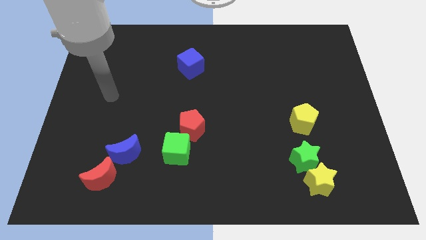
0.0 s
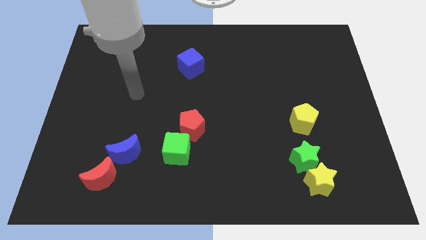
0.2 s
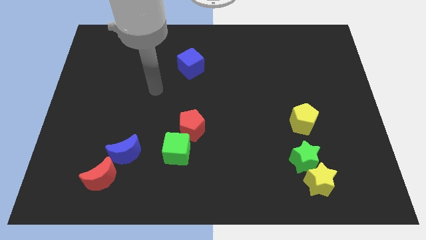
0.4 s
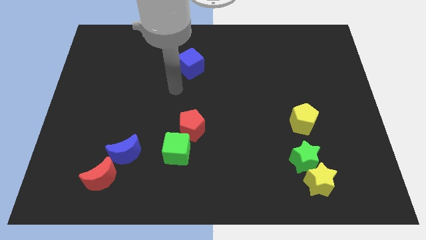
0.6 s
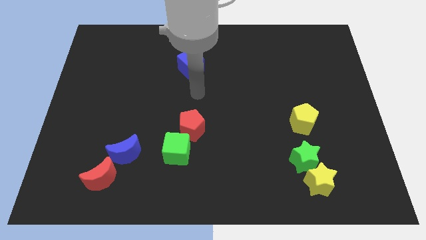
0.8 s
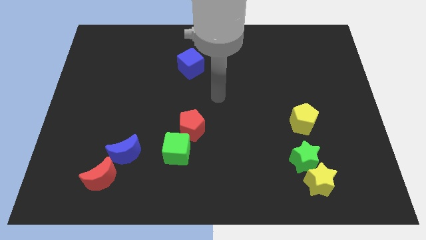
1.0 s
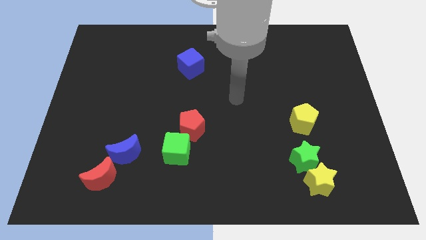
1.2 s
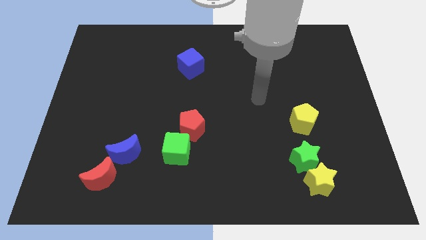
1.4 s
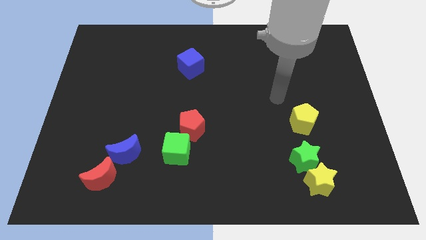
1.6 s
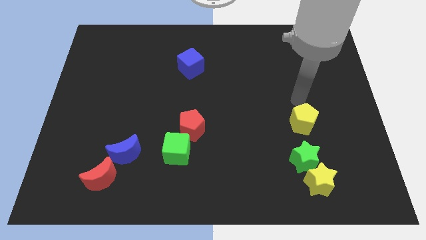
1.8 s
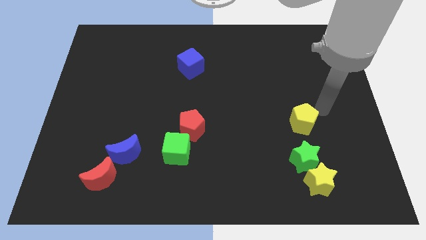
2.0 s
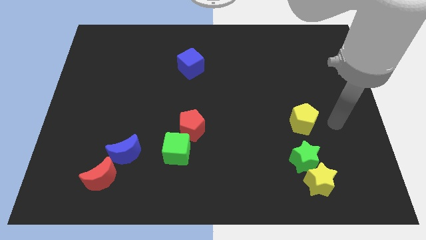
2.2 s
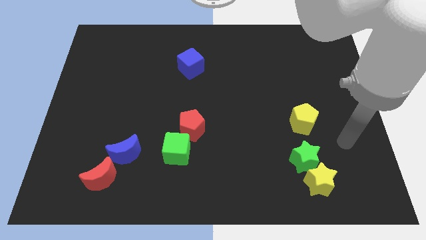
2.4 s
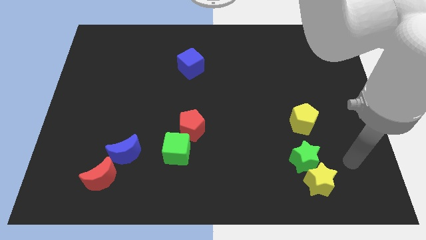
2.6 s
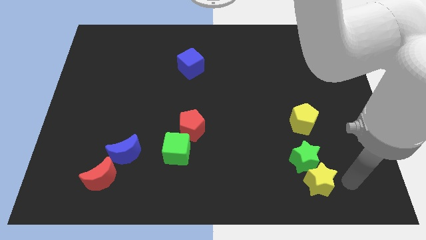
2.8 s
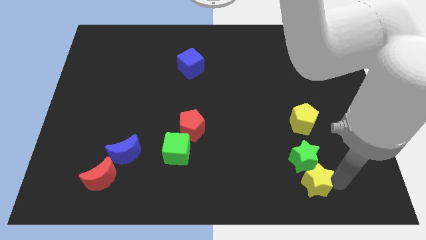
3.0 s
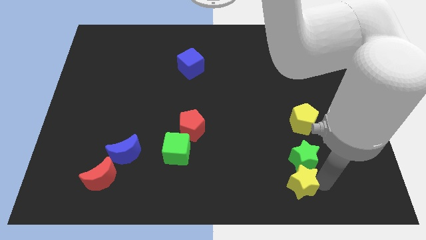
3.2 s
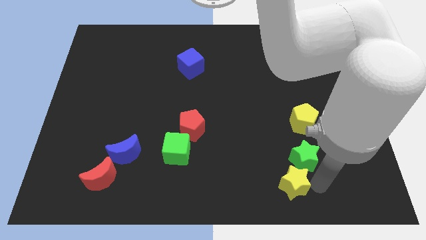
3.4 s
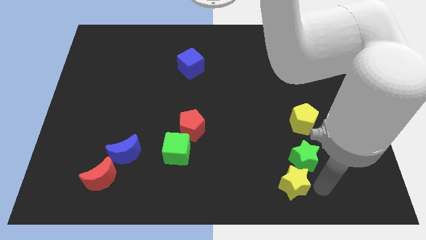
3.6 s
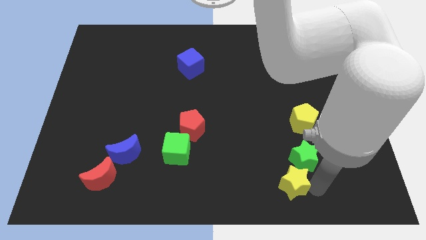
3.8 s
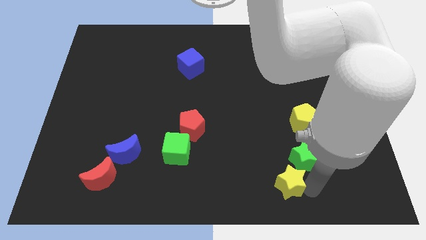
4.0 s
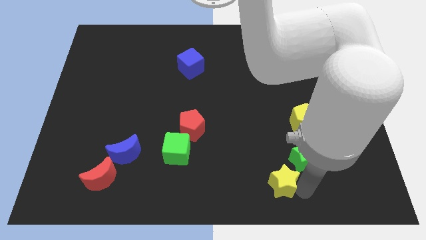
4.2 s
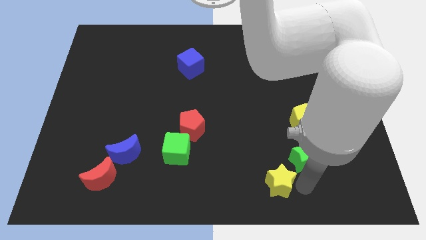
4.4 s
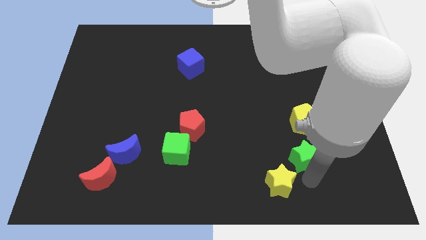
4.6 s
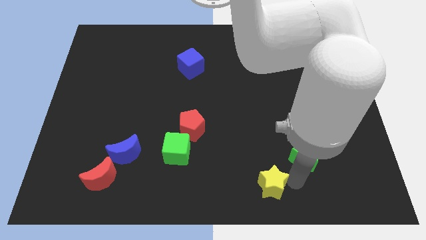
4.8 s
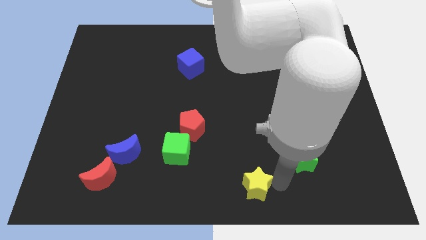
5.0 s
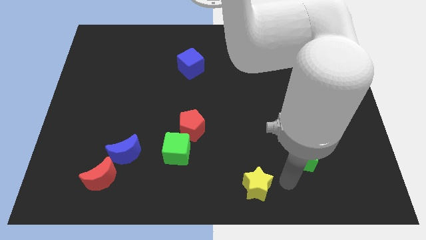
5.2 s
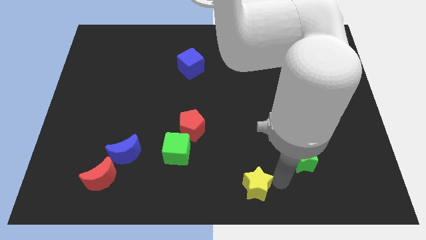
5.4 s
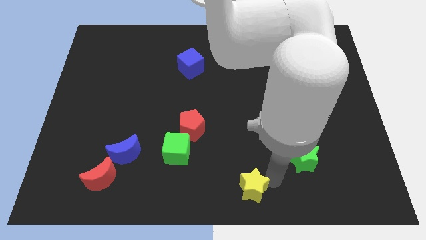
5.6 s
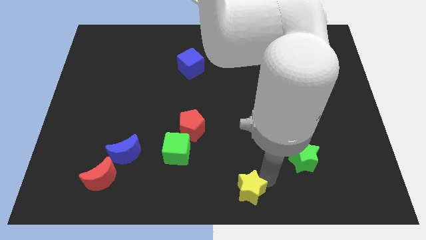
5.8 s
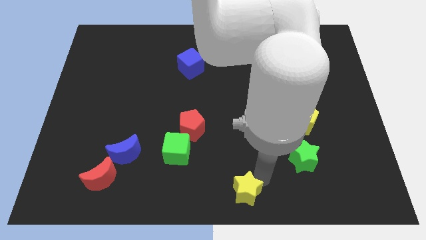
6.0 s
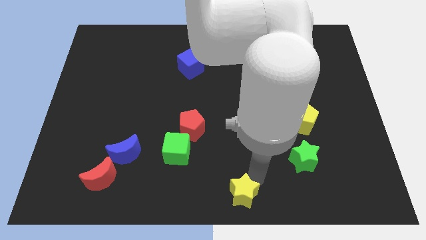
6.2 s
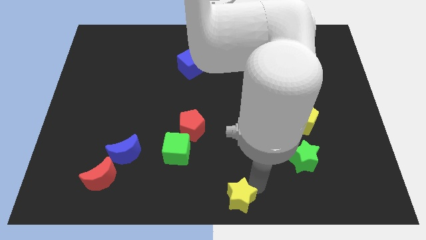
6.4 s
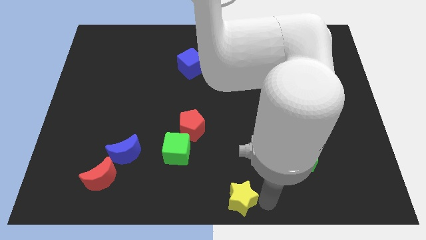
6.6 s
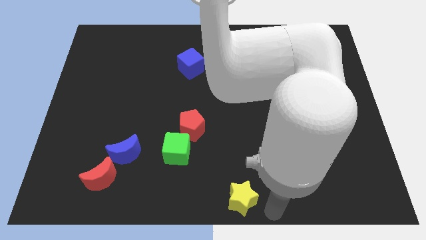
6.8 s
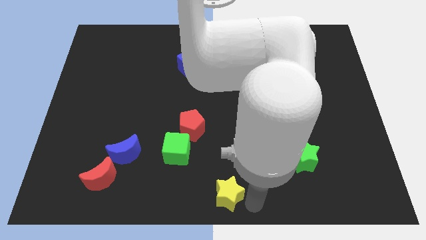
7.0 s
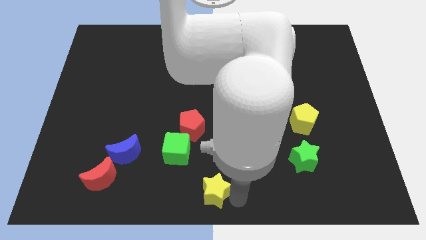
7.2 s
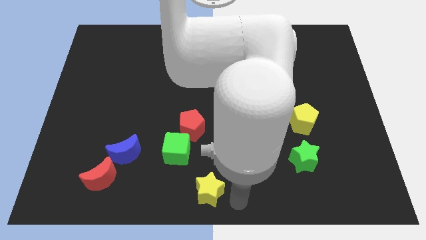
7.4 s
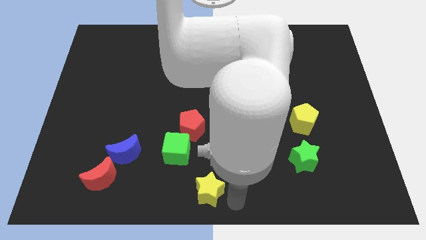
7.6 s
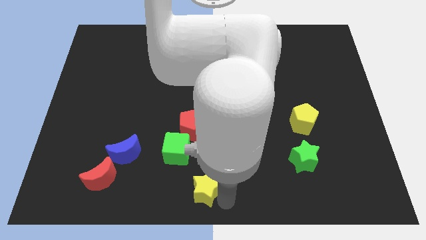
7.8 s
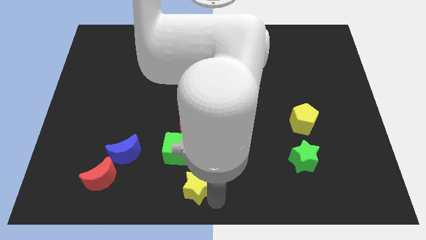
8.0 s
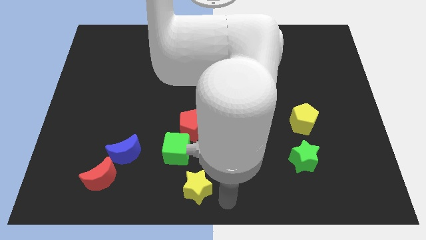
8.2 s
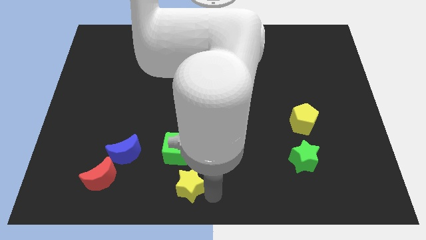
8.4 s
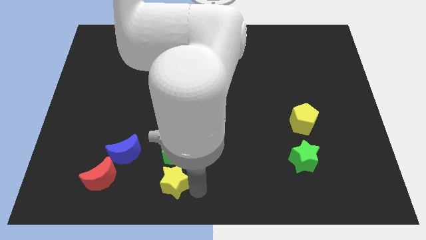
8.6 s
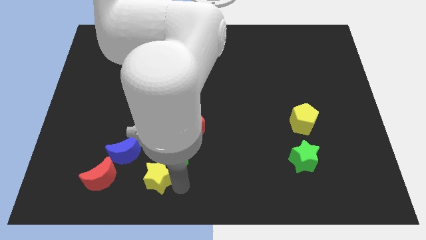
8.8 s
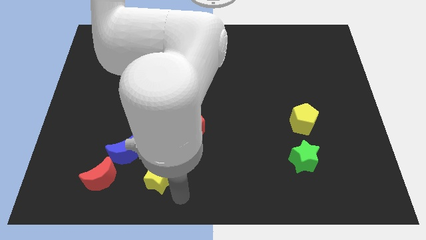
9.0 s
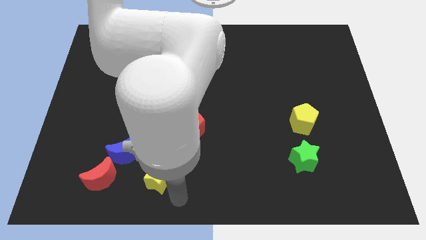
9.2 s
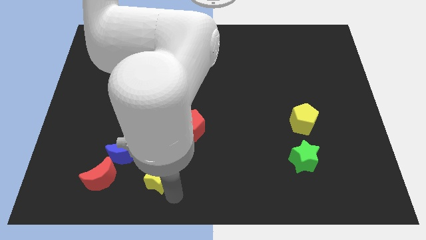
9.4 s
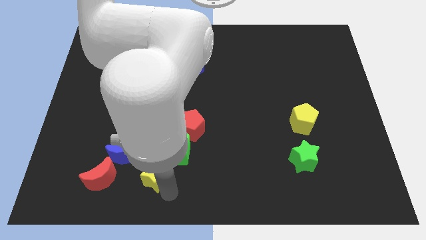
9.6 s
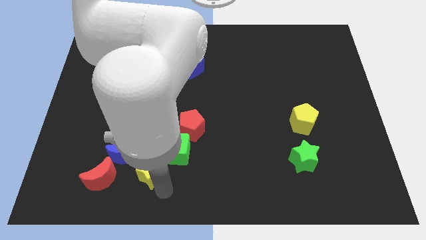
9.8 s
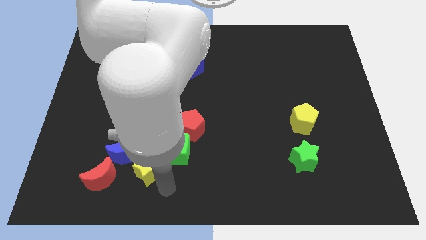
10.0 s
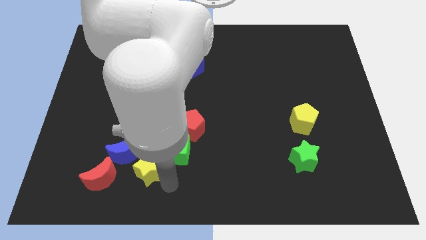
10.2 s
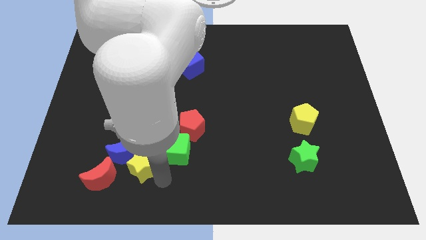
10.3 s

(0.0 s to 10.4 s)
move the yellow star close to the blue moon

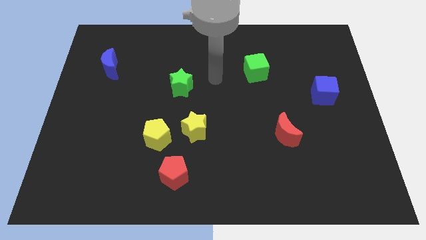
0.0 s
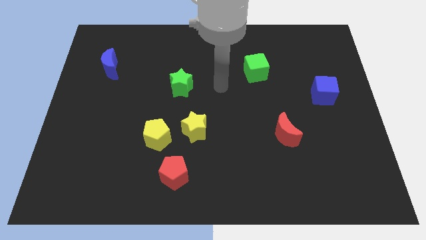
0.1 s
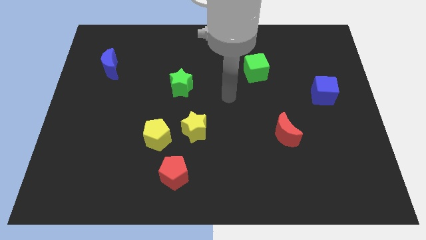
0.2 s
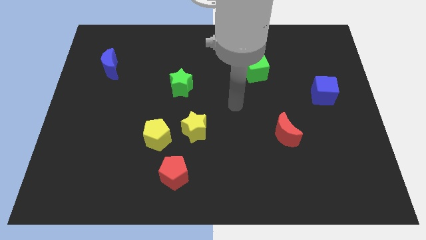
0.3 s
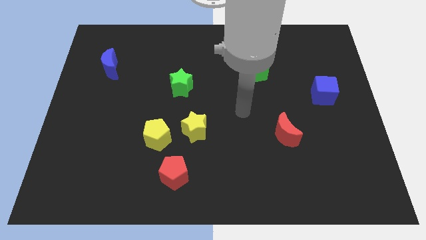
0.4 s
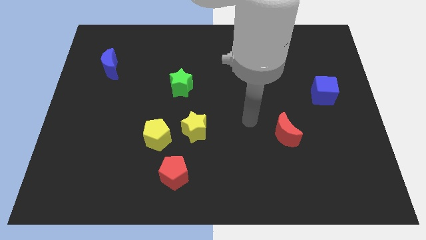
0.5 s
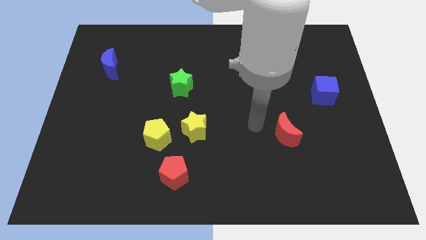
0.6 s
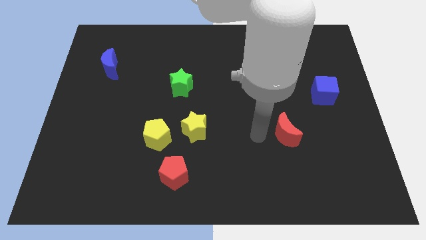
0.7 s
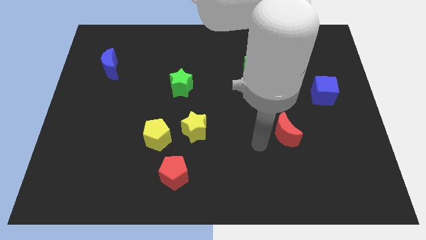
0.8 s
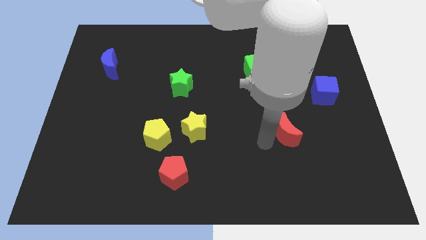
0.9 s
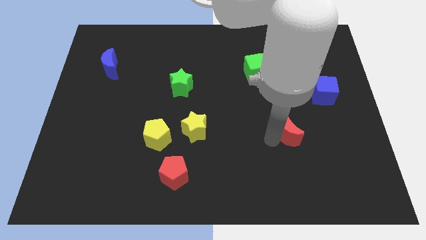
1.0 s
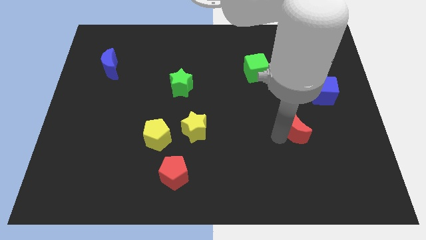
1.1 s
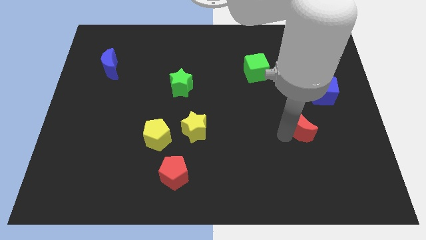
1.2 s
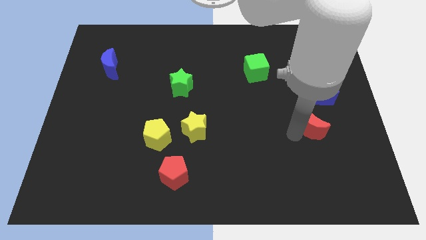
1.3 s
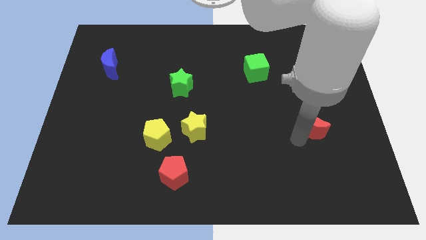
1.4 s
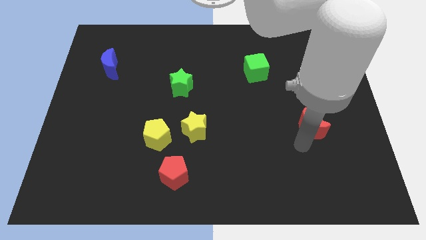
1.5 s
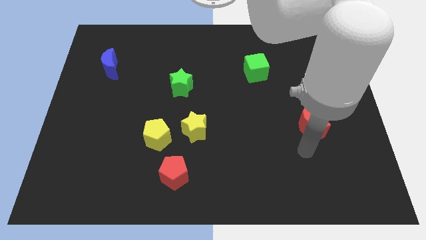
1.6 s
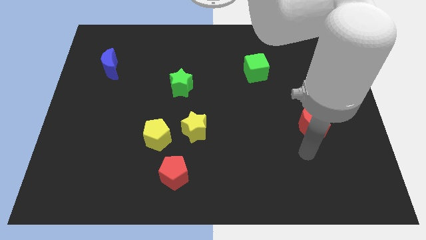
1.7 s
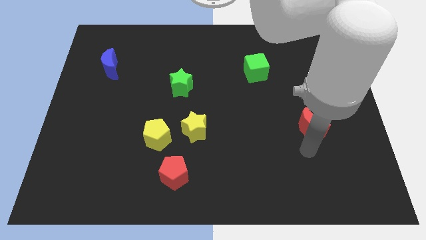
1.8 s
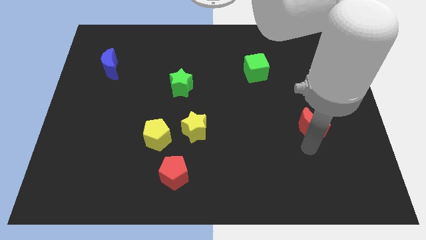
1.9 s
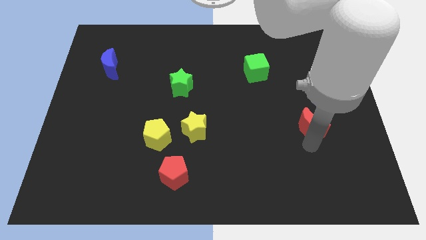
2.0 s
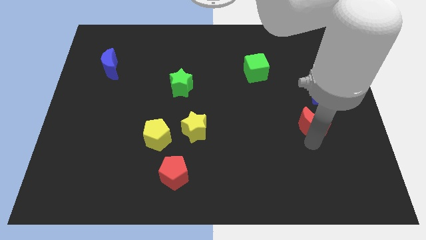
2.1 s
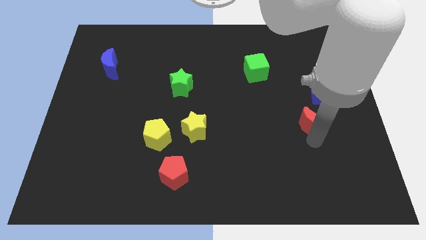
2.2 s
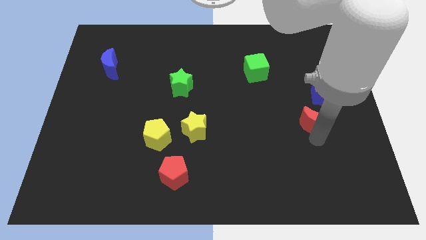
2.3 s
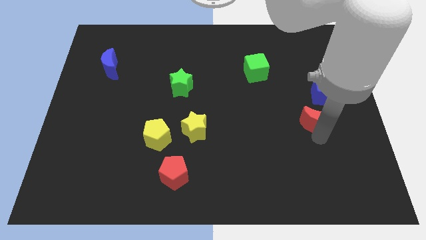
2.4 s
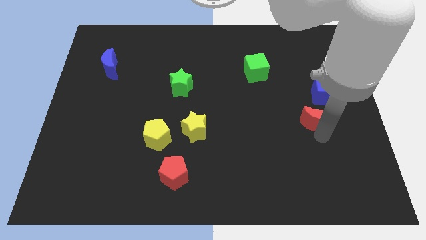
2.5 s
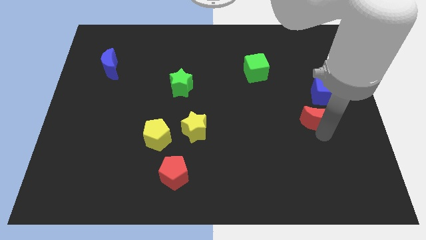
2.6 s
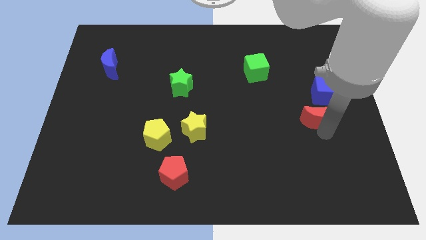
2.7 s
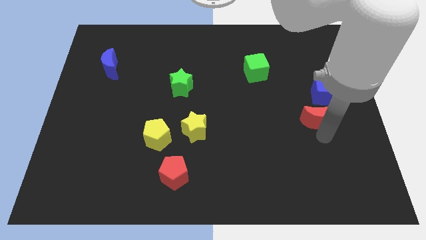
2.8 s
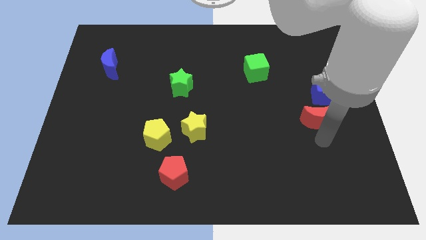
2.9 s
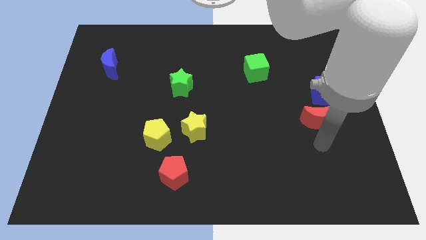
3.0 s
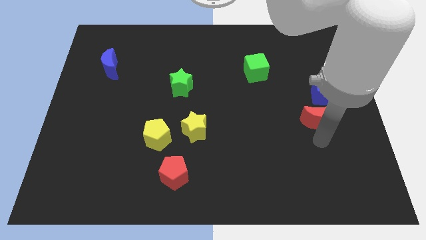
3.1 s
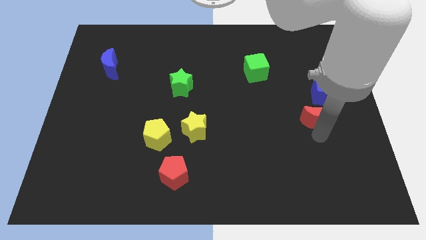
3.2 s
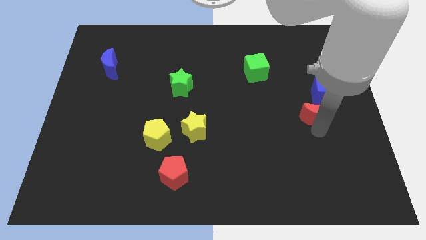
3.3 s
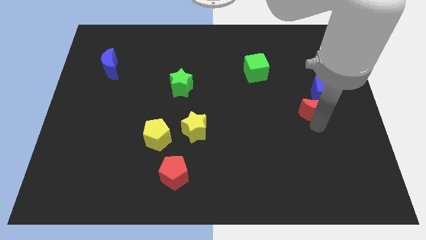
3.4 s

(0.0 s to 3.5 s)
push the red moon next to the blue cube
